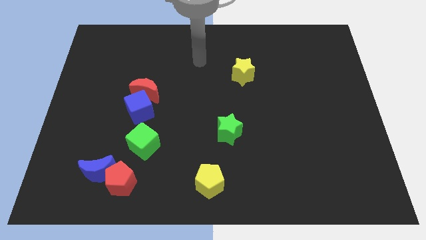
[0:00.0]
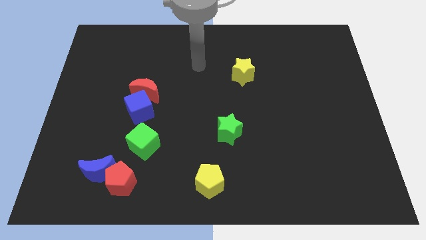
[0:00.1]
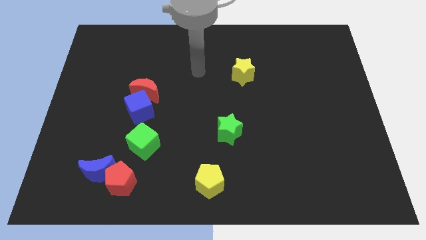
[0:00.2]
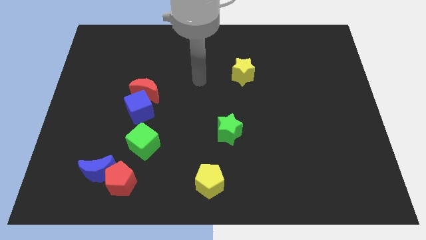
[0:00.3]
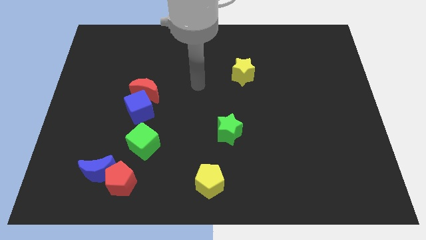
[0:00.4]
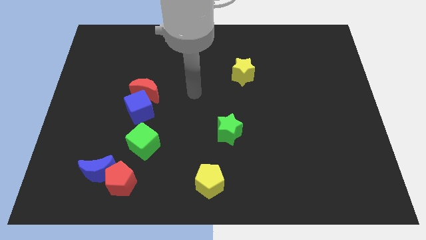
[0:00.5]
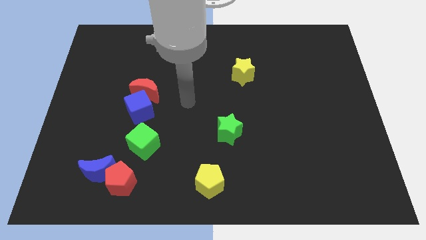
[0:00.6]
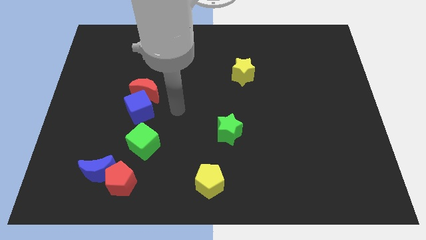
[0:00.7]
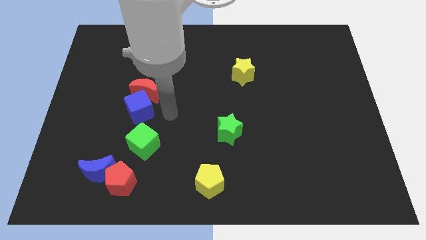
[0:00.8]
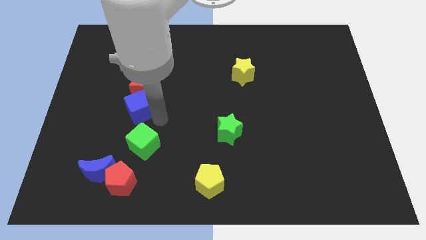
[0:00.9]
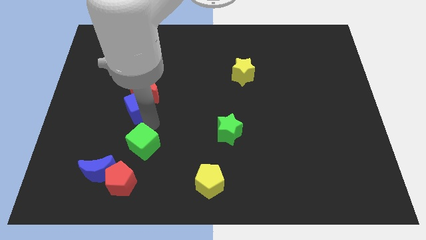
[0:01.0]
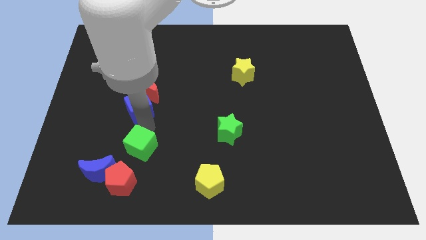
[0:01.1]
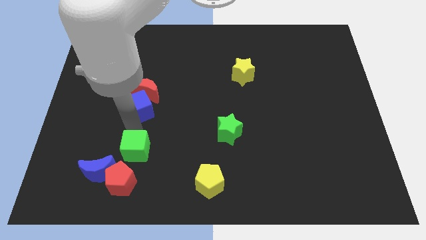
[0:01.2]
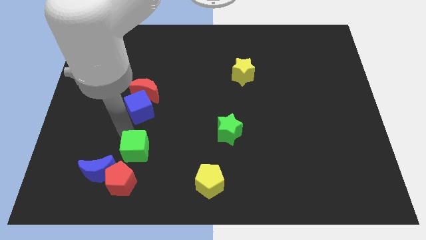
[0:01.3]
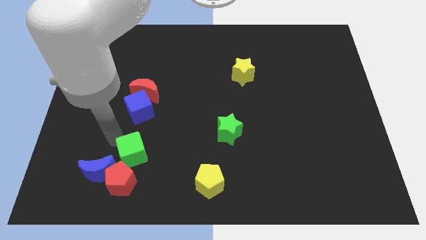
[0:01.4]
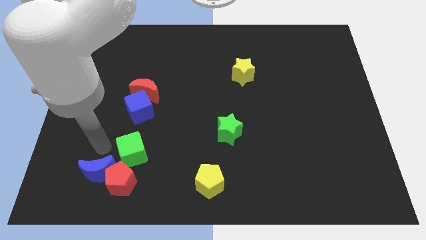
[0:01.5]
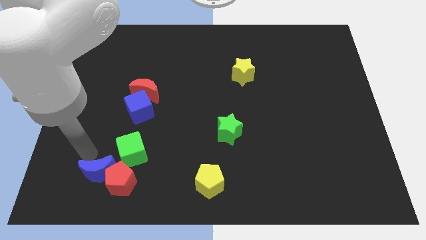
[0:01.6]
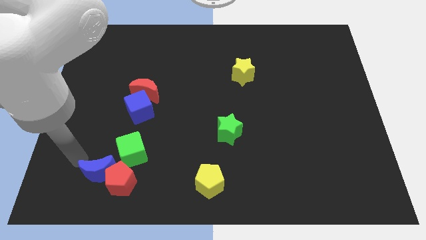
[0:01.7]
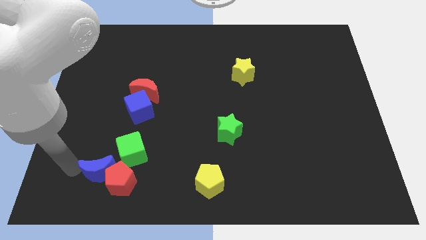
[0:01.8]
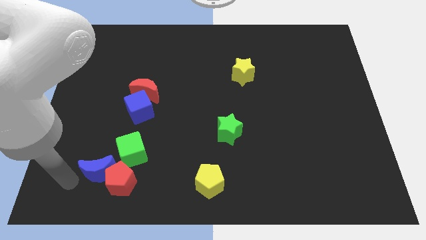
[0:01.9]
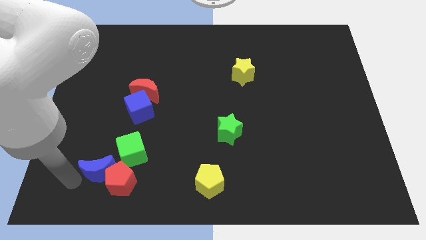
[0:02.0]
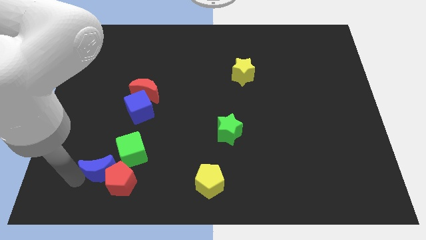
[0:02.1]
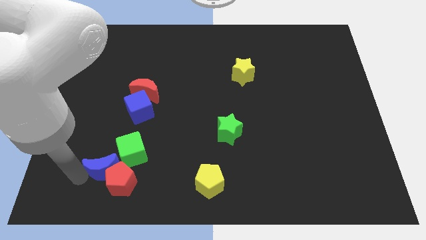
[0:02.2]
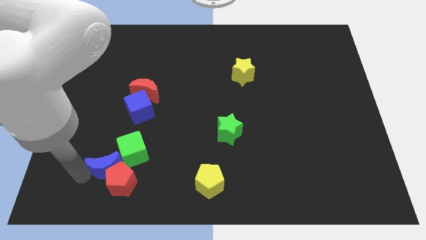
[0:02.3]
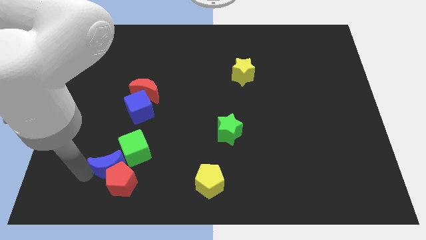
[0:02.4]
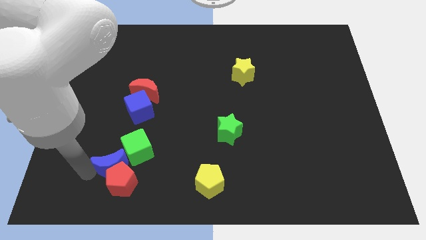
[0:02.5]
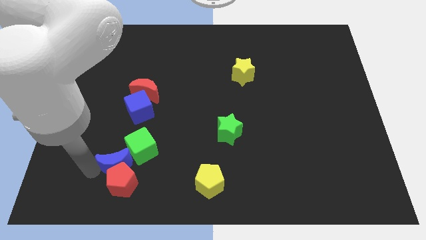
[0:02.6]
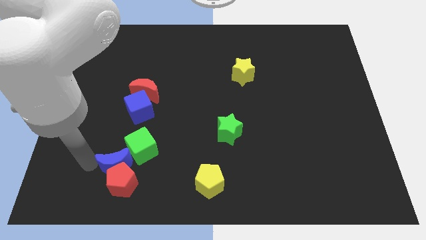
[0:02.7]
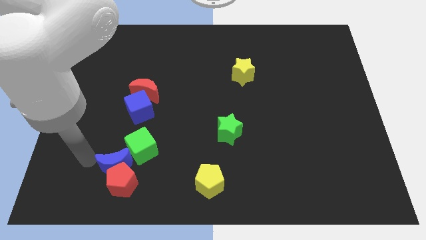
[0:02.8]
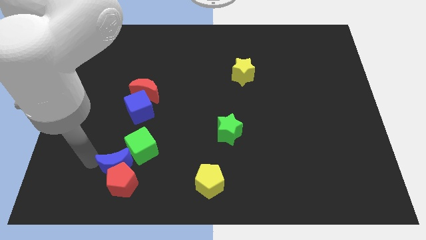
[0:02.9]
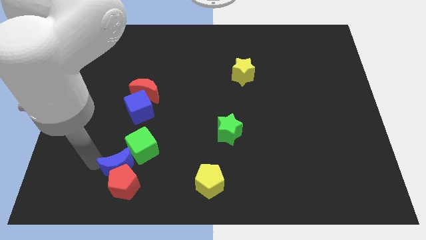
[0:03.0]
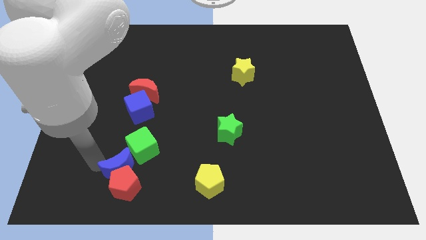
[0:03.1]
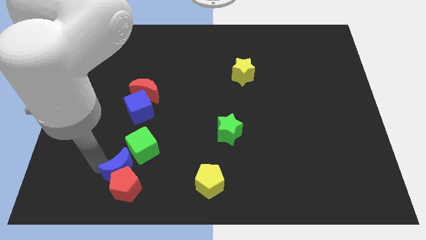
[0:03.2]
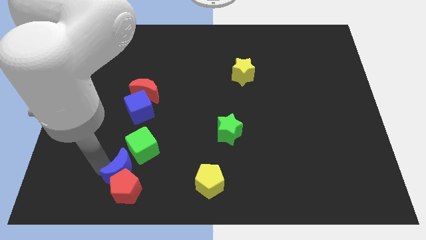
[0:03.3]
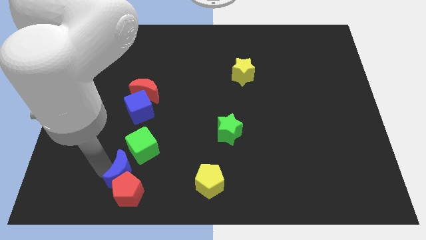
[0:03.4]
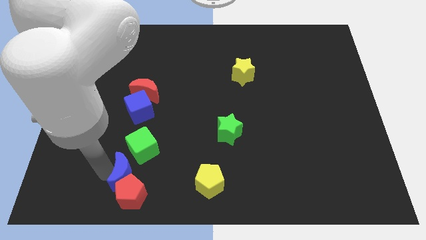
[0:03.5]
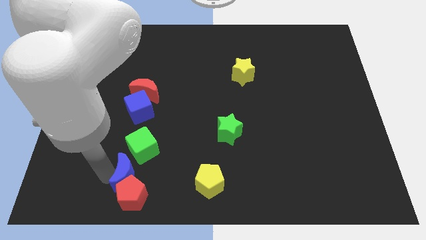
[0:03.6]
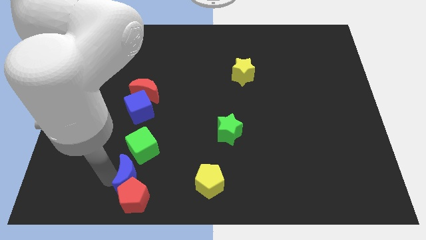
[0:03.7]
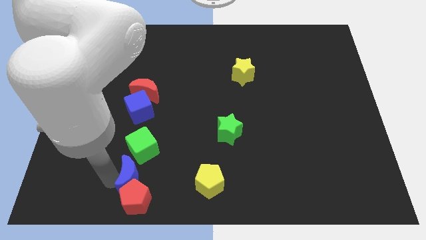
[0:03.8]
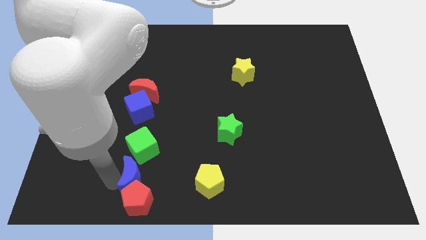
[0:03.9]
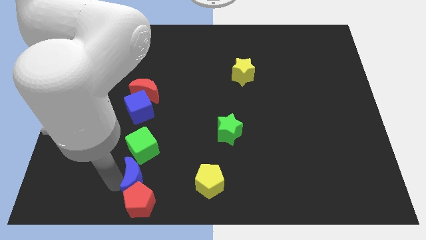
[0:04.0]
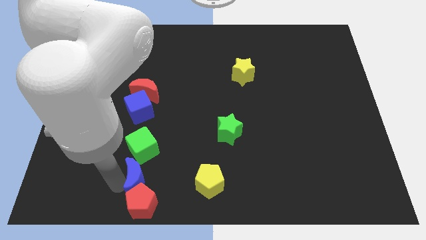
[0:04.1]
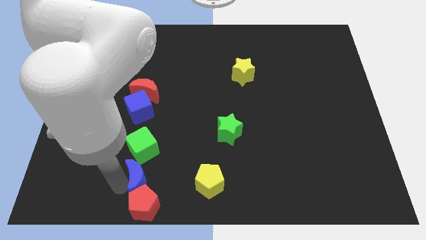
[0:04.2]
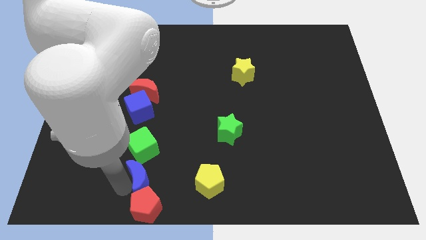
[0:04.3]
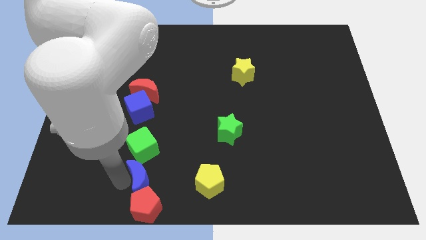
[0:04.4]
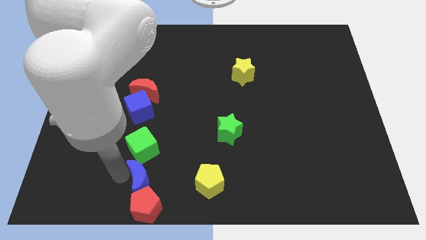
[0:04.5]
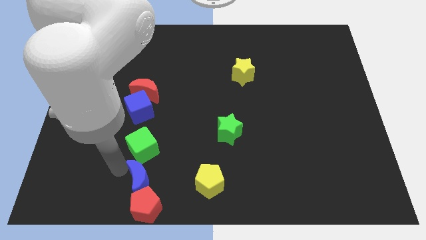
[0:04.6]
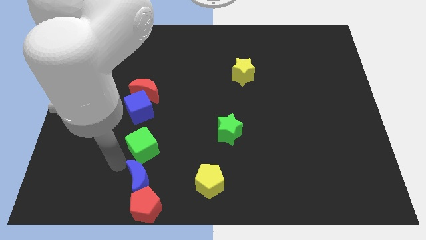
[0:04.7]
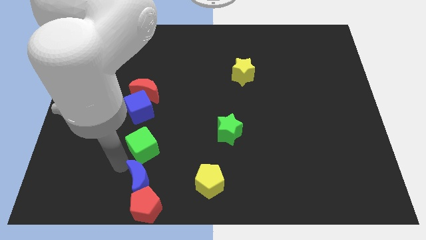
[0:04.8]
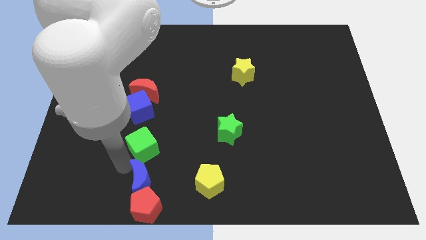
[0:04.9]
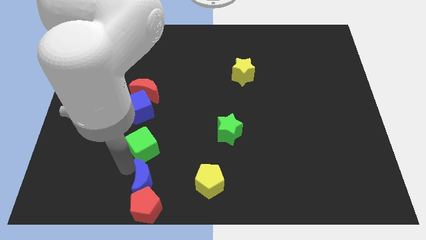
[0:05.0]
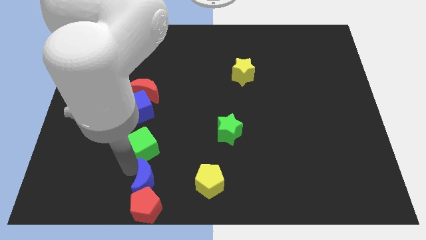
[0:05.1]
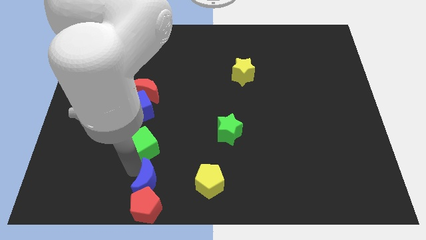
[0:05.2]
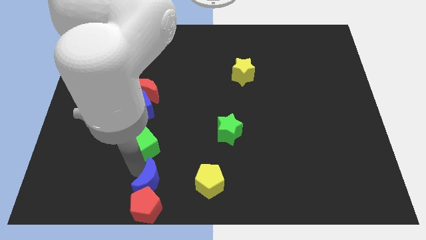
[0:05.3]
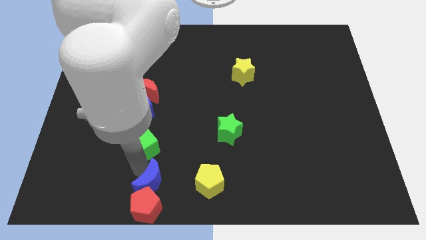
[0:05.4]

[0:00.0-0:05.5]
put the blue moon to the bottom
